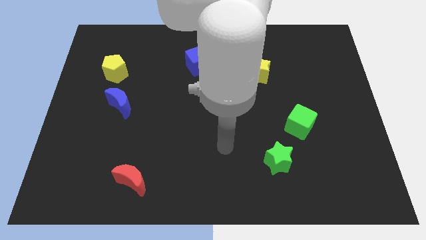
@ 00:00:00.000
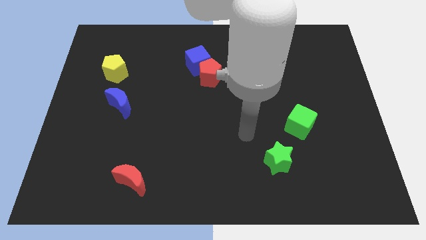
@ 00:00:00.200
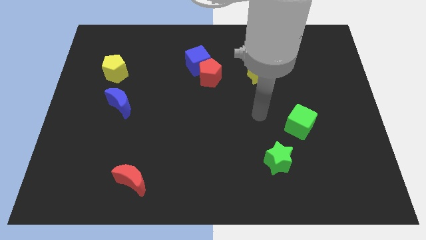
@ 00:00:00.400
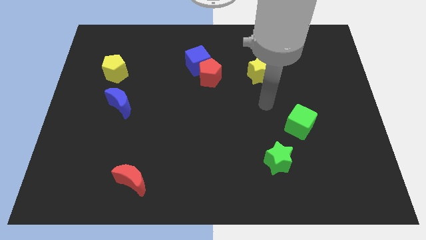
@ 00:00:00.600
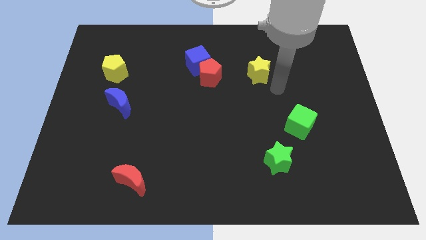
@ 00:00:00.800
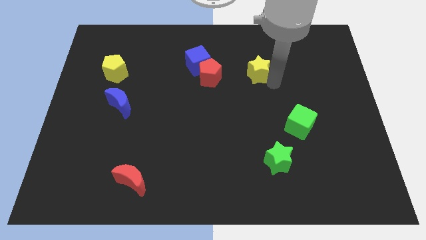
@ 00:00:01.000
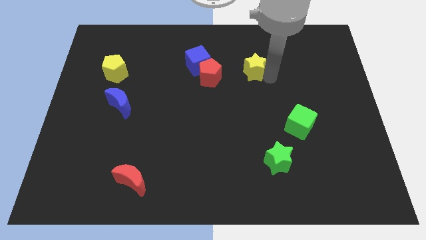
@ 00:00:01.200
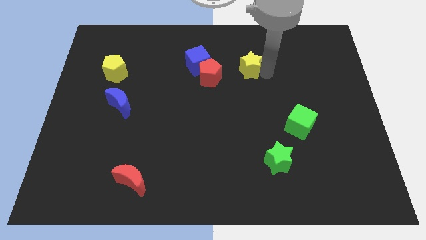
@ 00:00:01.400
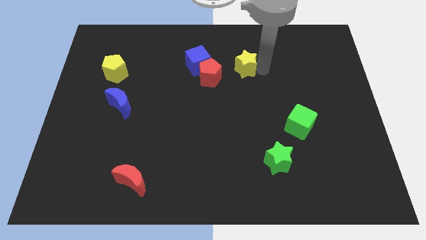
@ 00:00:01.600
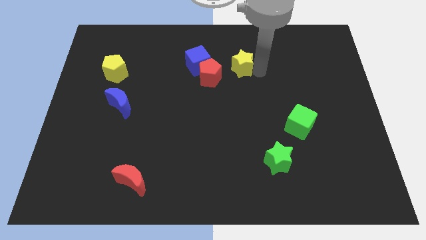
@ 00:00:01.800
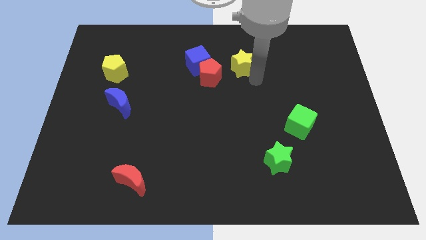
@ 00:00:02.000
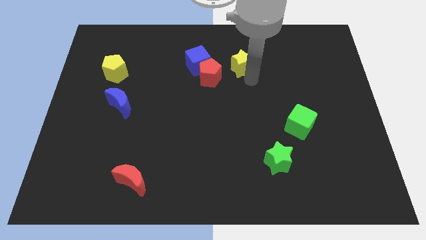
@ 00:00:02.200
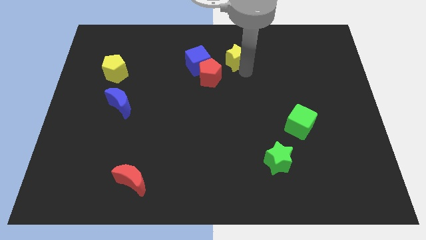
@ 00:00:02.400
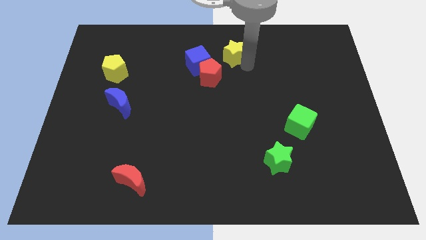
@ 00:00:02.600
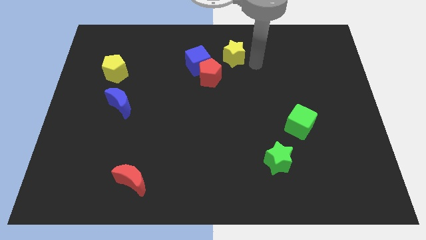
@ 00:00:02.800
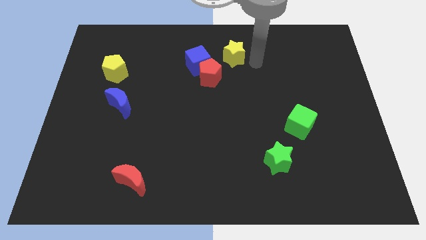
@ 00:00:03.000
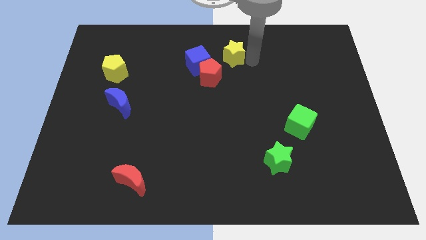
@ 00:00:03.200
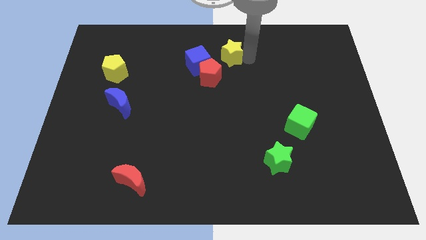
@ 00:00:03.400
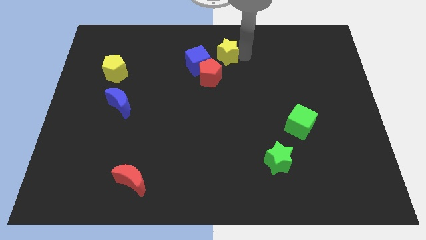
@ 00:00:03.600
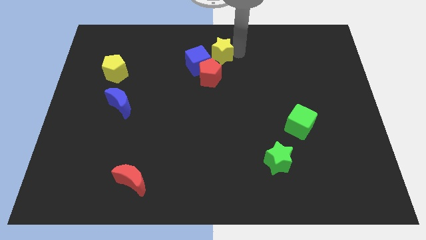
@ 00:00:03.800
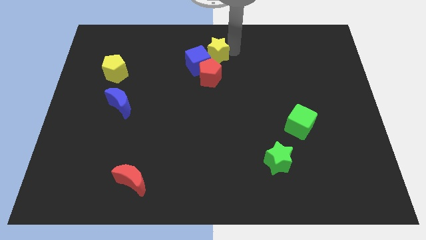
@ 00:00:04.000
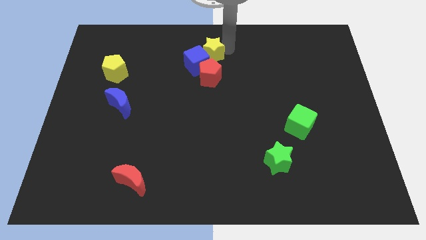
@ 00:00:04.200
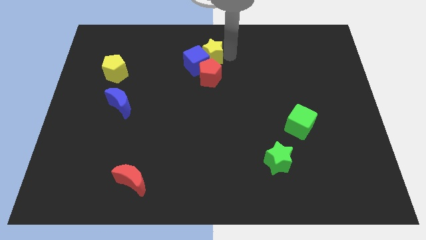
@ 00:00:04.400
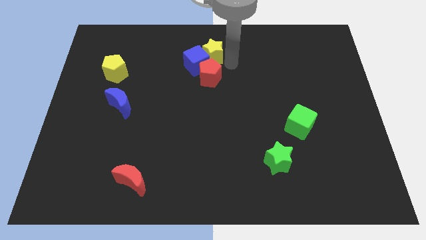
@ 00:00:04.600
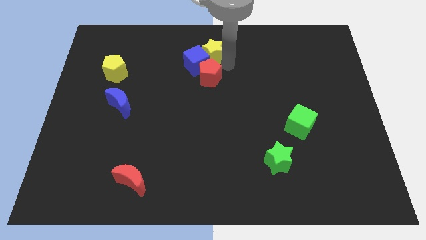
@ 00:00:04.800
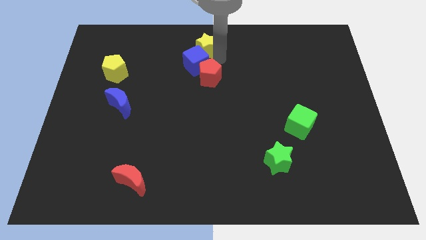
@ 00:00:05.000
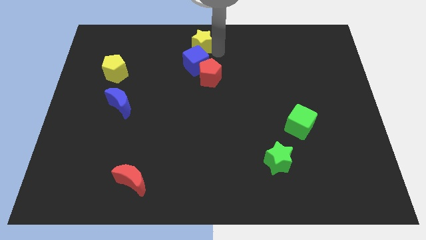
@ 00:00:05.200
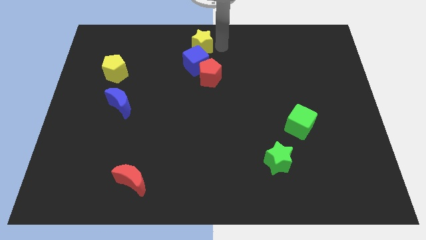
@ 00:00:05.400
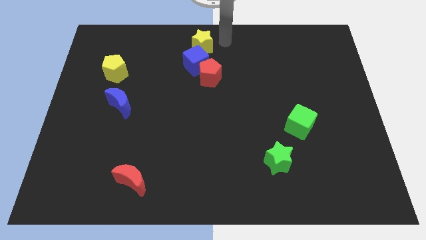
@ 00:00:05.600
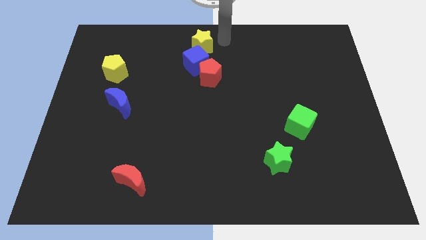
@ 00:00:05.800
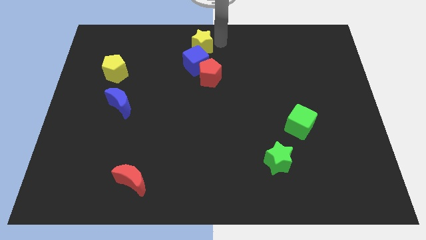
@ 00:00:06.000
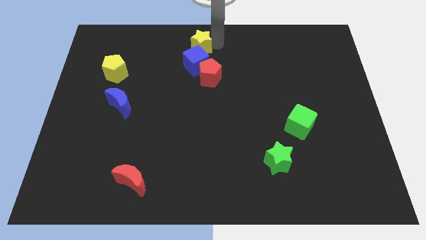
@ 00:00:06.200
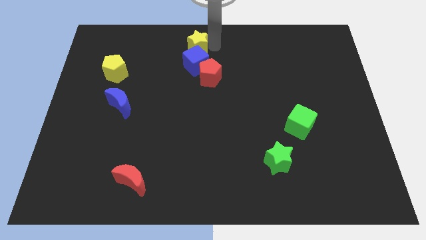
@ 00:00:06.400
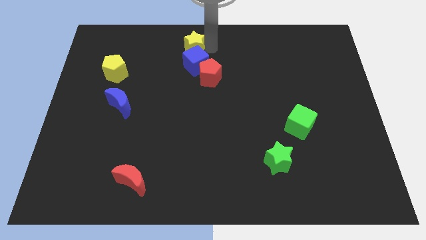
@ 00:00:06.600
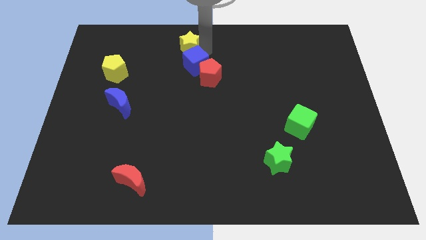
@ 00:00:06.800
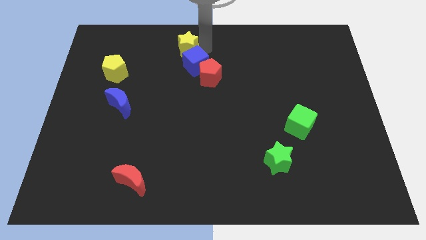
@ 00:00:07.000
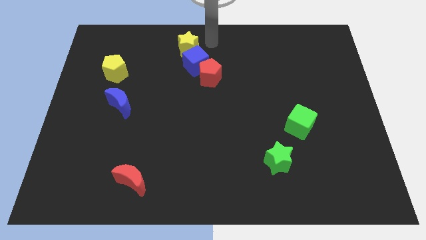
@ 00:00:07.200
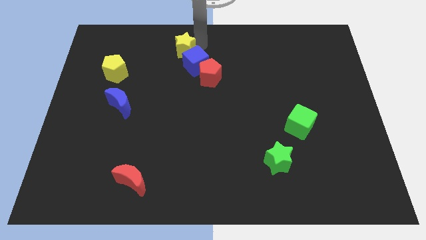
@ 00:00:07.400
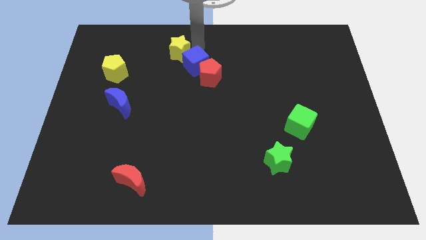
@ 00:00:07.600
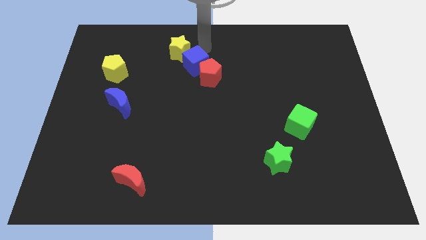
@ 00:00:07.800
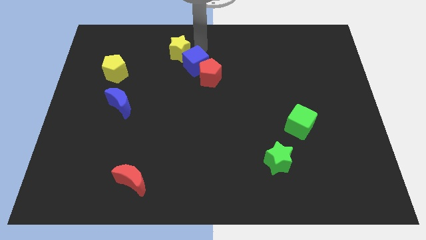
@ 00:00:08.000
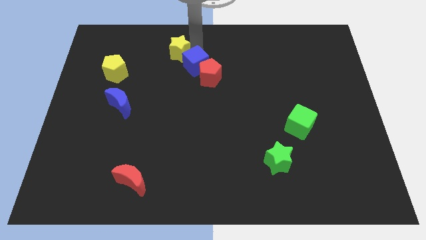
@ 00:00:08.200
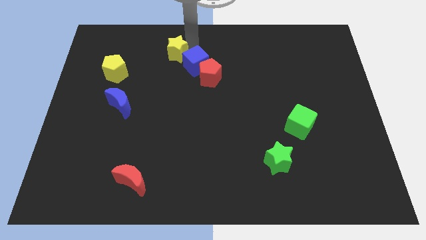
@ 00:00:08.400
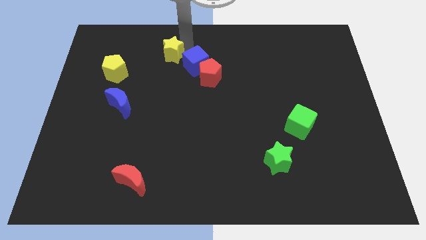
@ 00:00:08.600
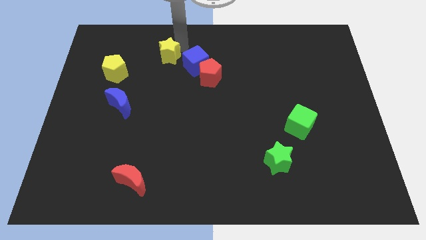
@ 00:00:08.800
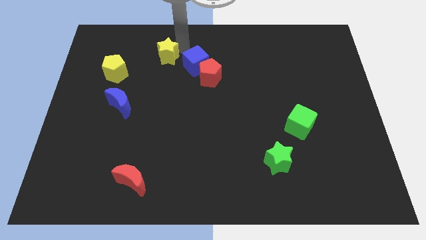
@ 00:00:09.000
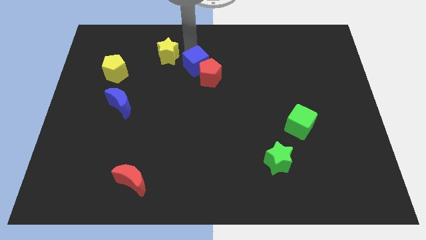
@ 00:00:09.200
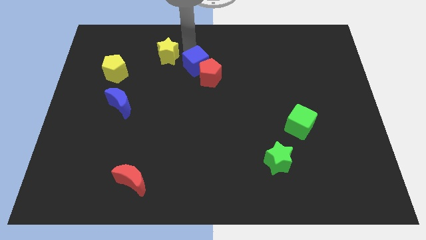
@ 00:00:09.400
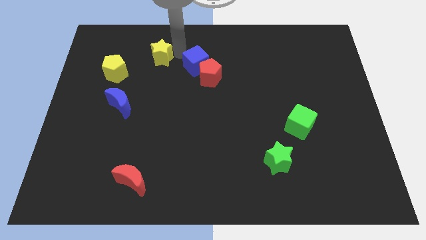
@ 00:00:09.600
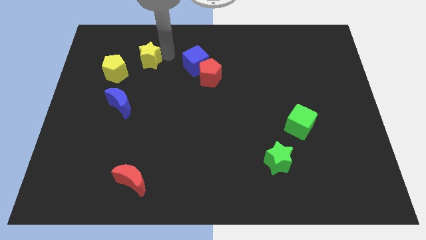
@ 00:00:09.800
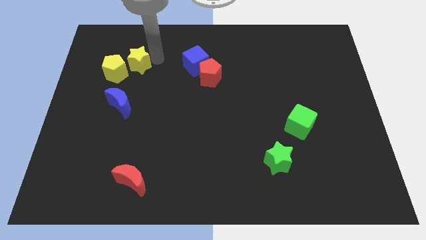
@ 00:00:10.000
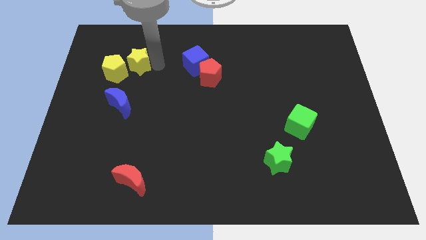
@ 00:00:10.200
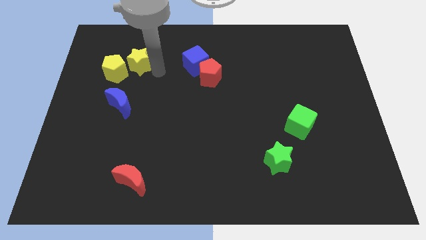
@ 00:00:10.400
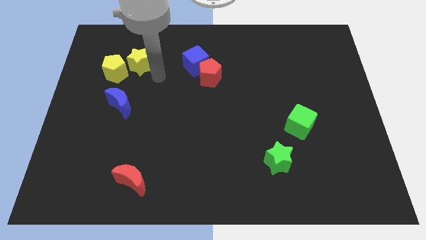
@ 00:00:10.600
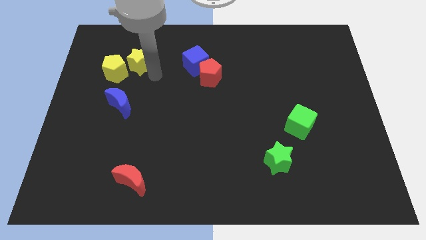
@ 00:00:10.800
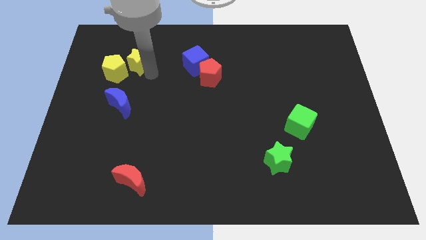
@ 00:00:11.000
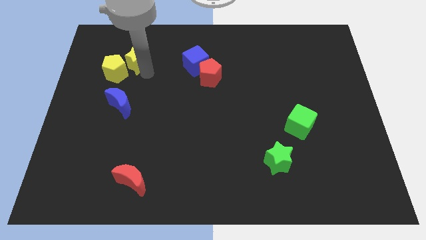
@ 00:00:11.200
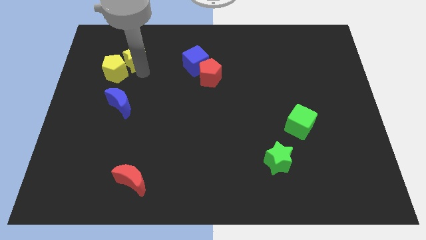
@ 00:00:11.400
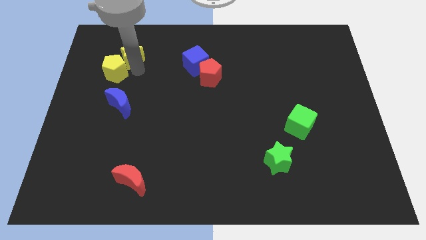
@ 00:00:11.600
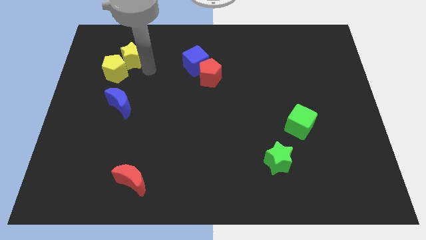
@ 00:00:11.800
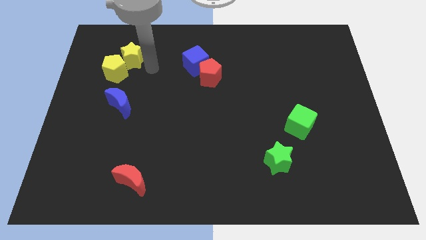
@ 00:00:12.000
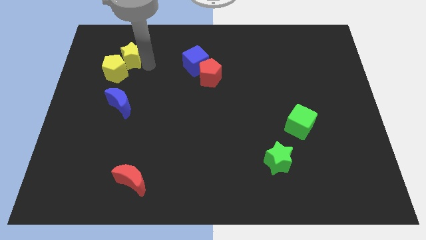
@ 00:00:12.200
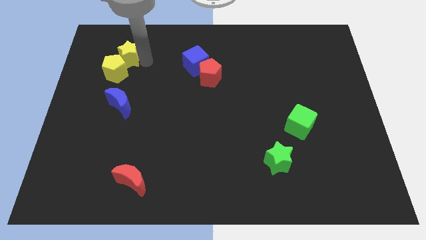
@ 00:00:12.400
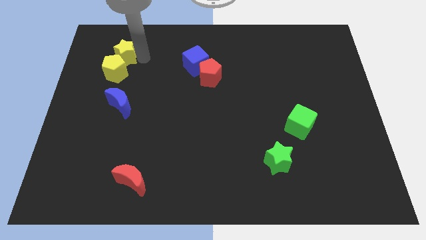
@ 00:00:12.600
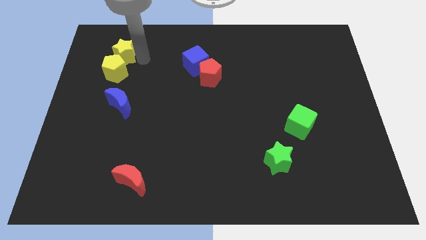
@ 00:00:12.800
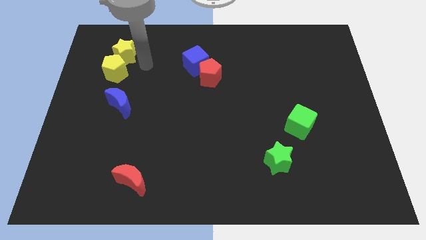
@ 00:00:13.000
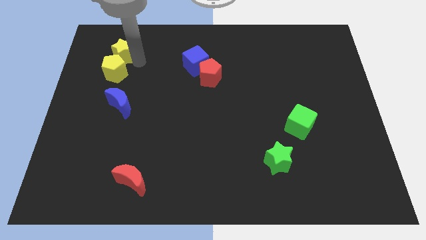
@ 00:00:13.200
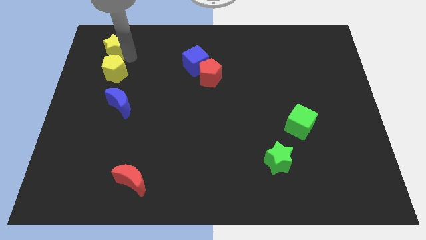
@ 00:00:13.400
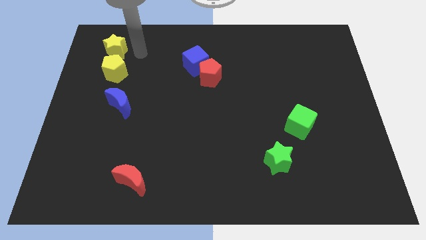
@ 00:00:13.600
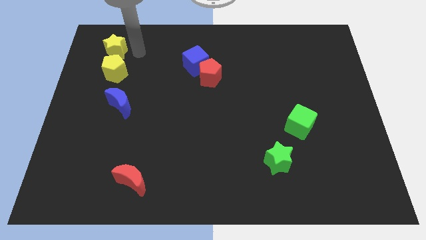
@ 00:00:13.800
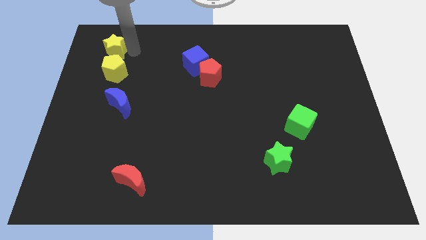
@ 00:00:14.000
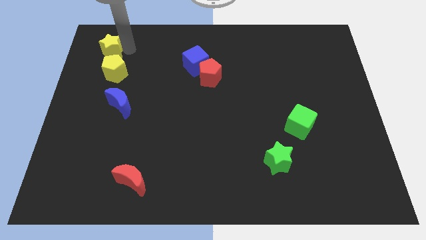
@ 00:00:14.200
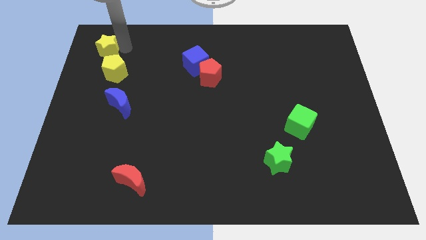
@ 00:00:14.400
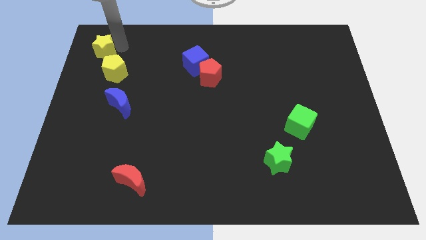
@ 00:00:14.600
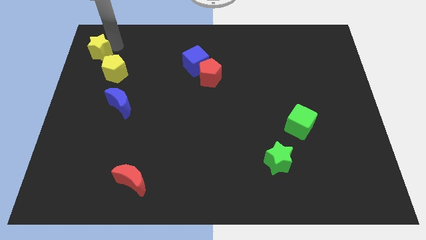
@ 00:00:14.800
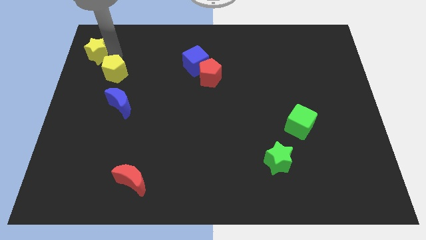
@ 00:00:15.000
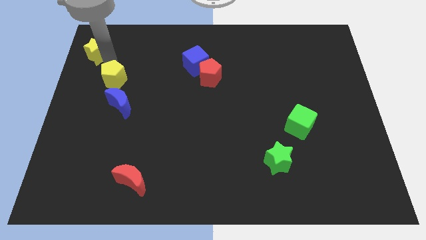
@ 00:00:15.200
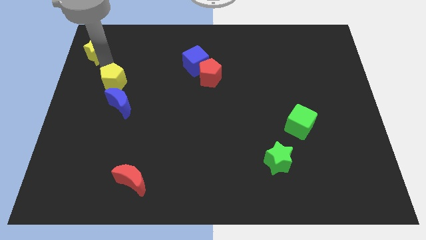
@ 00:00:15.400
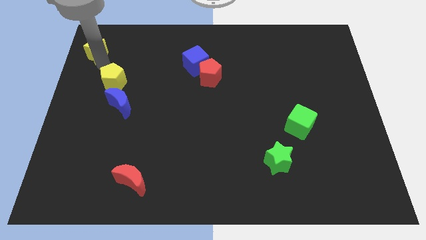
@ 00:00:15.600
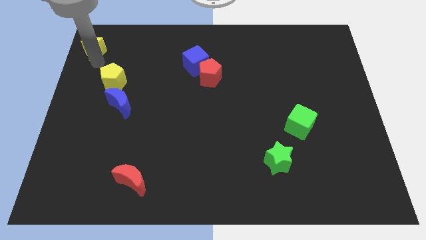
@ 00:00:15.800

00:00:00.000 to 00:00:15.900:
move the yellow star to the upper left corner
